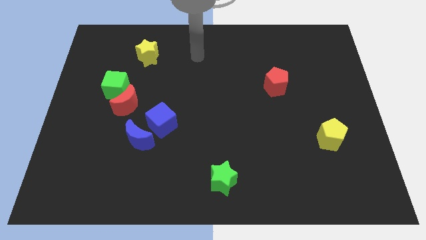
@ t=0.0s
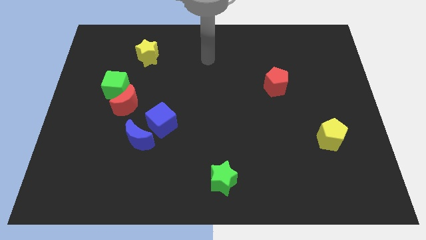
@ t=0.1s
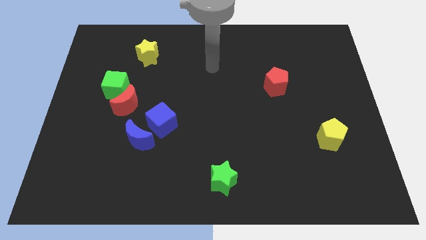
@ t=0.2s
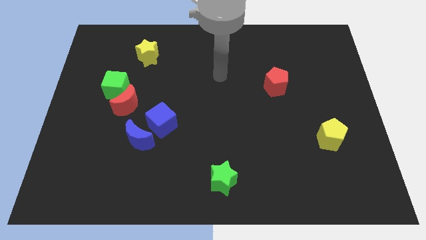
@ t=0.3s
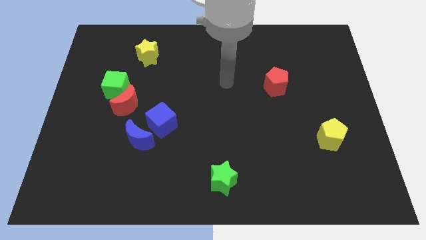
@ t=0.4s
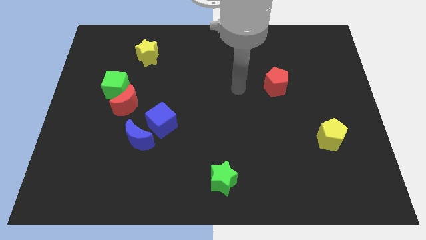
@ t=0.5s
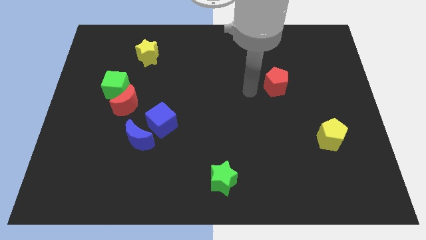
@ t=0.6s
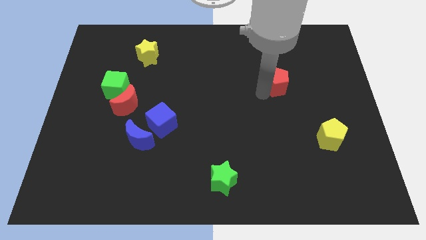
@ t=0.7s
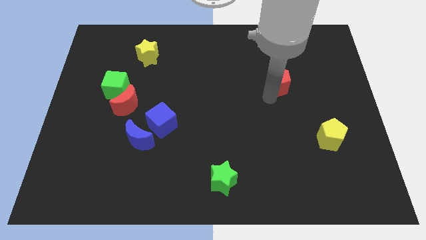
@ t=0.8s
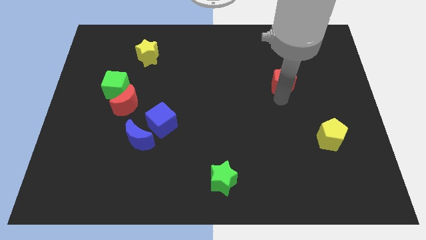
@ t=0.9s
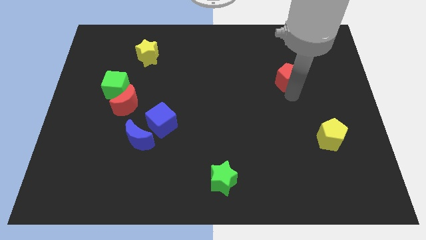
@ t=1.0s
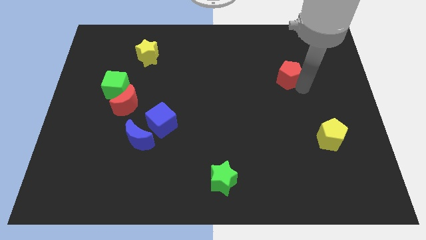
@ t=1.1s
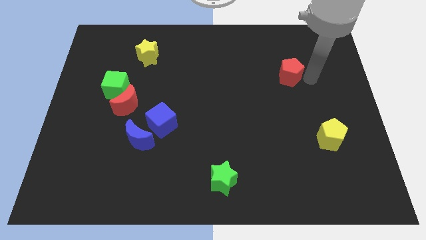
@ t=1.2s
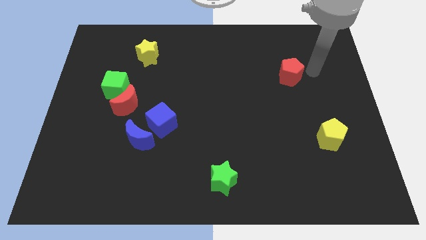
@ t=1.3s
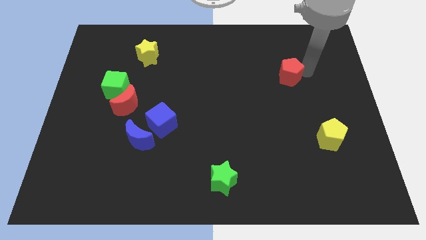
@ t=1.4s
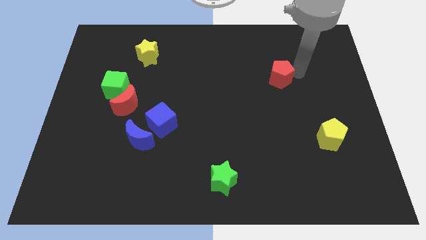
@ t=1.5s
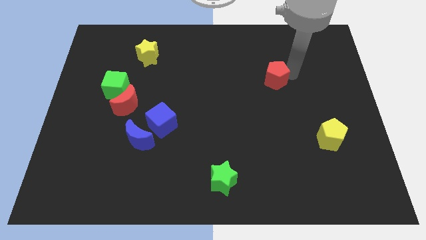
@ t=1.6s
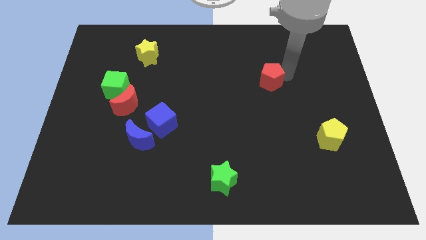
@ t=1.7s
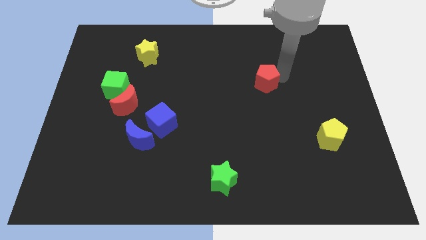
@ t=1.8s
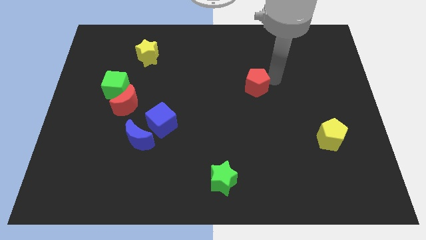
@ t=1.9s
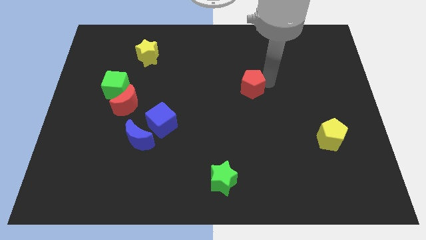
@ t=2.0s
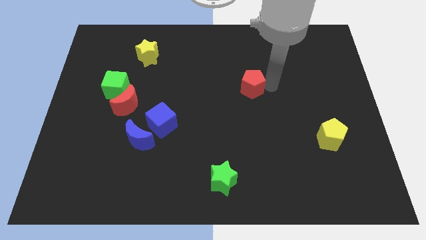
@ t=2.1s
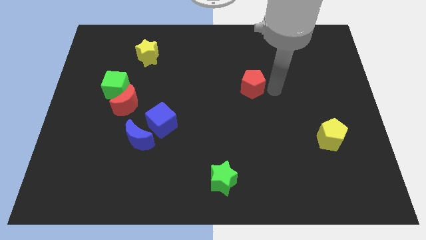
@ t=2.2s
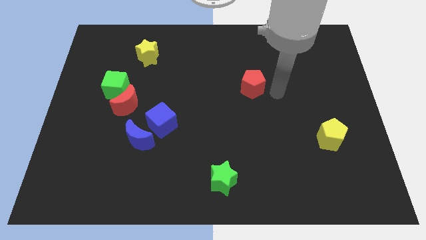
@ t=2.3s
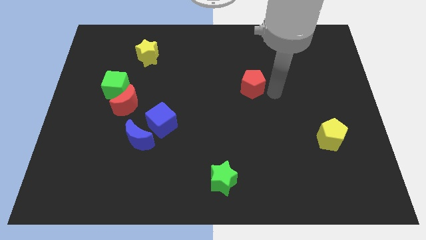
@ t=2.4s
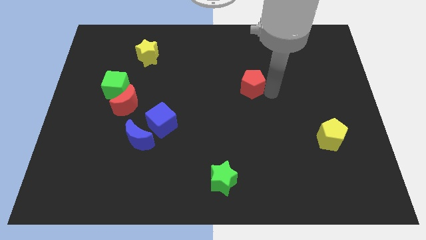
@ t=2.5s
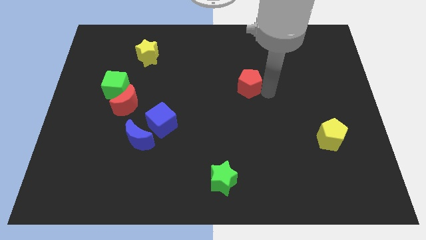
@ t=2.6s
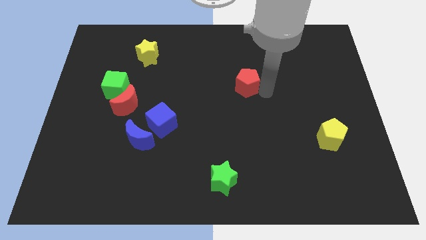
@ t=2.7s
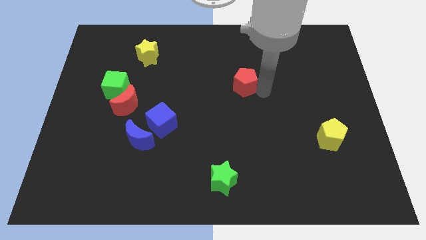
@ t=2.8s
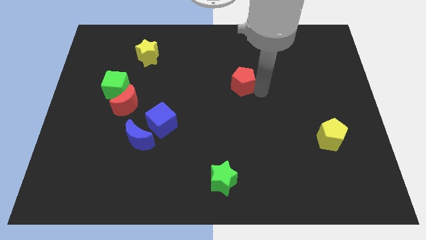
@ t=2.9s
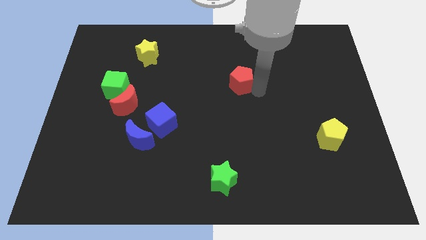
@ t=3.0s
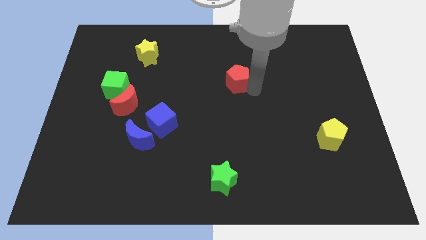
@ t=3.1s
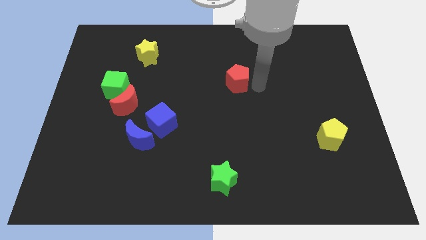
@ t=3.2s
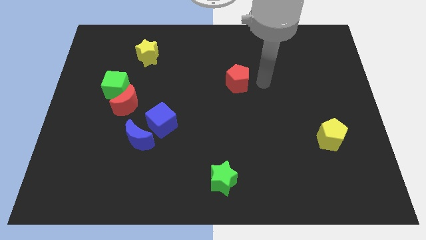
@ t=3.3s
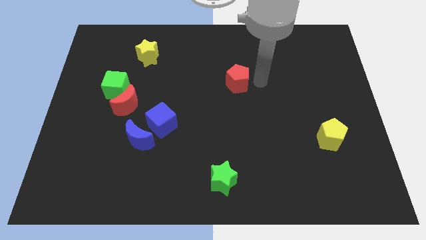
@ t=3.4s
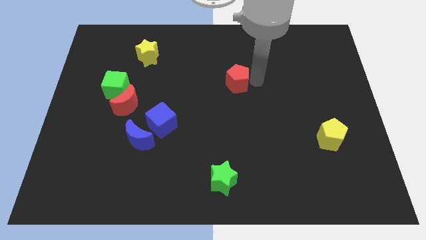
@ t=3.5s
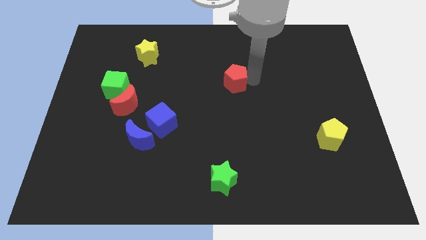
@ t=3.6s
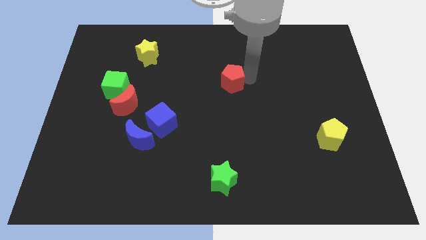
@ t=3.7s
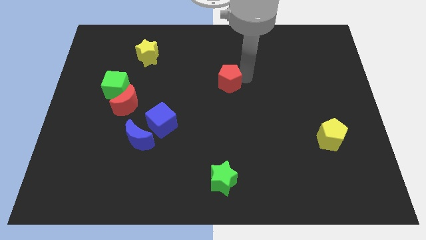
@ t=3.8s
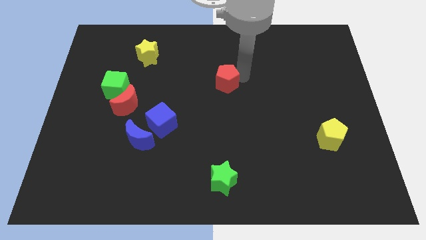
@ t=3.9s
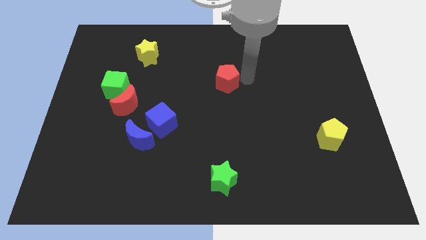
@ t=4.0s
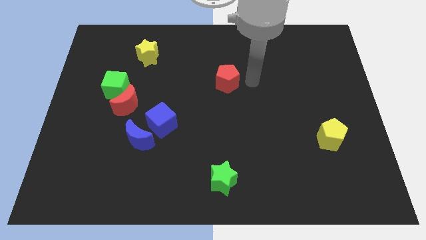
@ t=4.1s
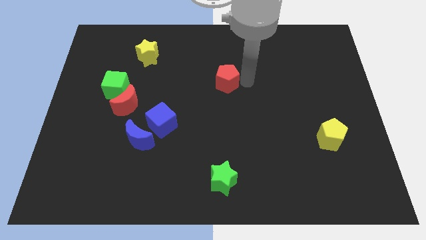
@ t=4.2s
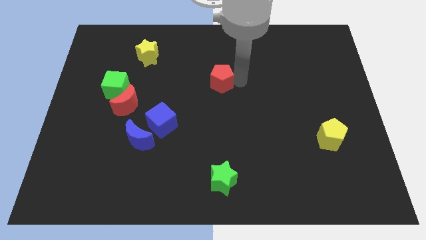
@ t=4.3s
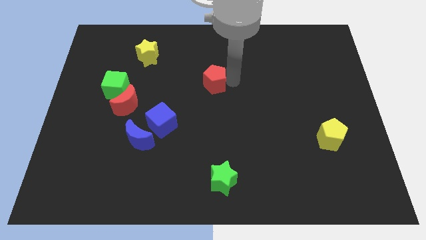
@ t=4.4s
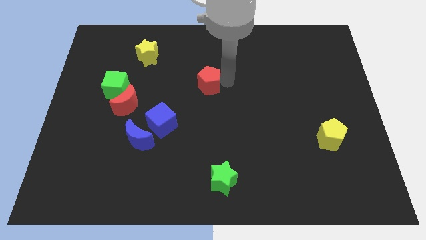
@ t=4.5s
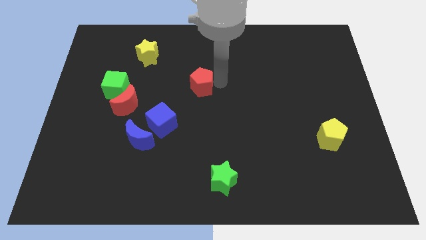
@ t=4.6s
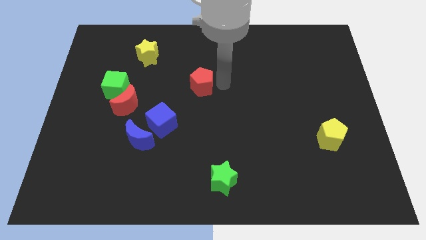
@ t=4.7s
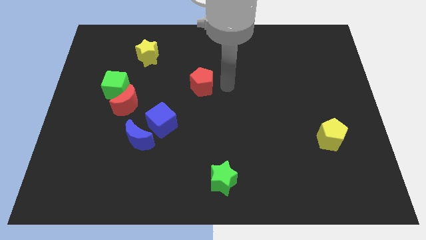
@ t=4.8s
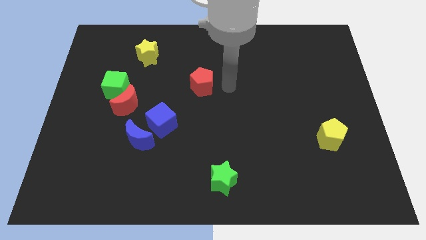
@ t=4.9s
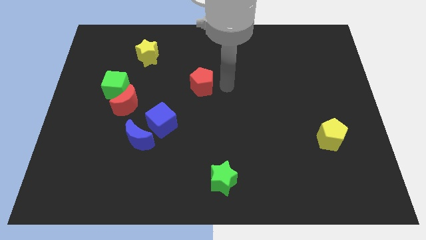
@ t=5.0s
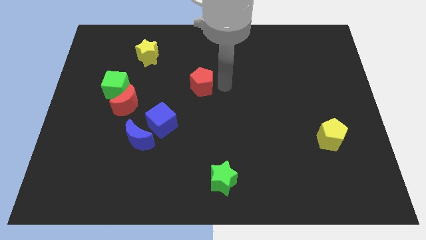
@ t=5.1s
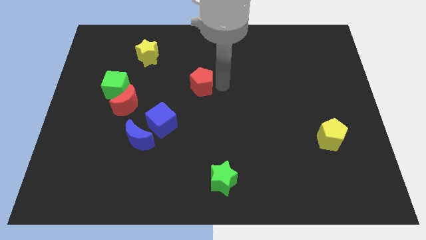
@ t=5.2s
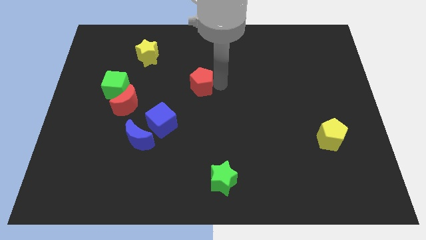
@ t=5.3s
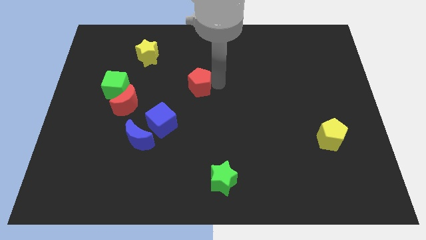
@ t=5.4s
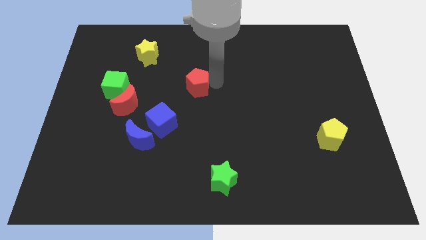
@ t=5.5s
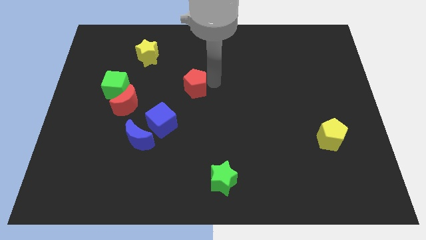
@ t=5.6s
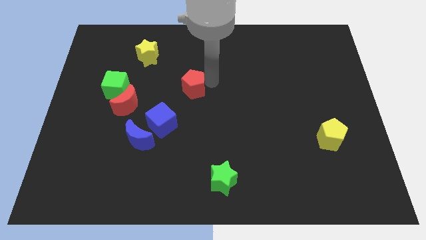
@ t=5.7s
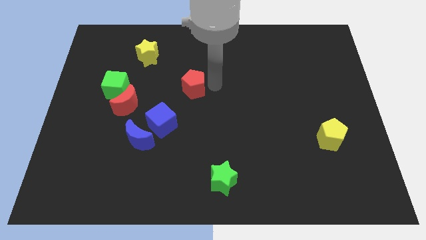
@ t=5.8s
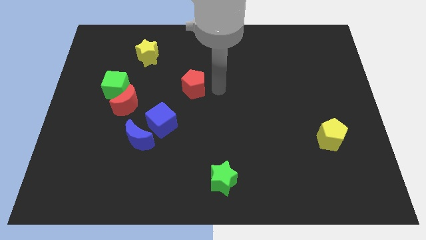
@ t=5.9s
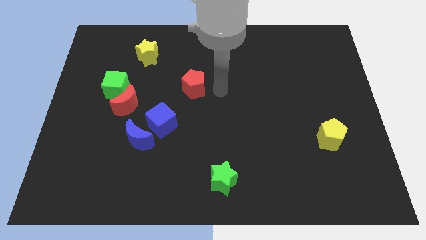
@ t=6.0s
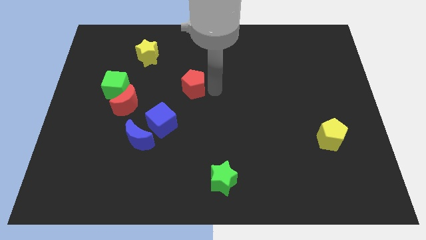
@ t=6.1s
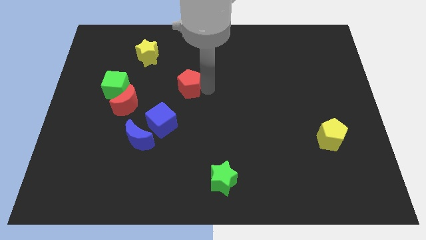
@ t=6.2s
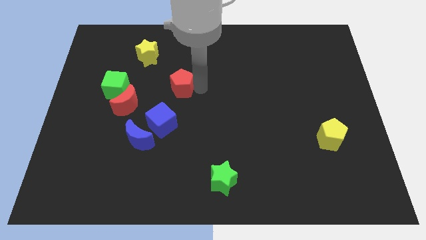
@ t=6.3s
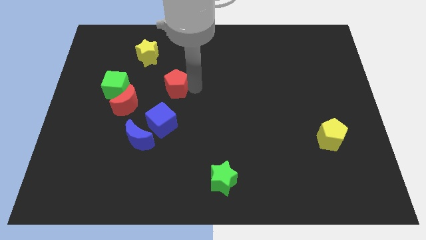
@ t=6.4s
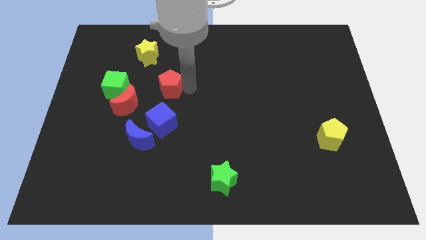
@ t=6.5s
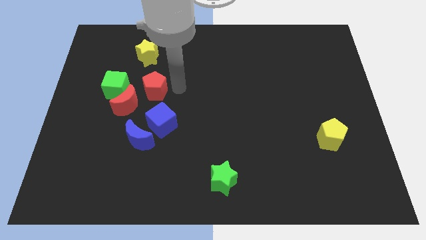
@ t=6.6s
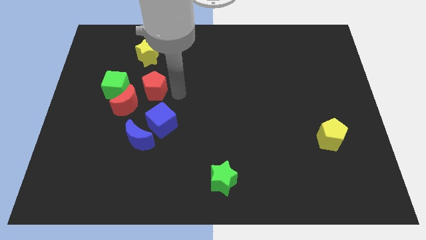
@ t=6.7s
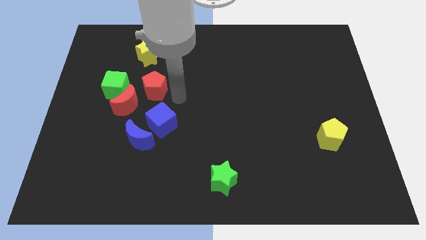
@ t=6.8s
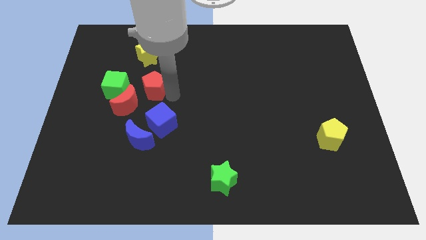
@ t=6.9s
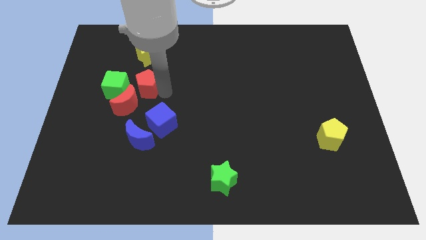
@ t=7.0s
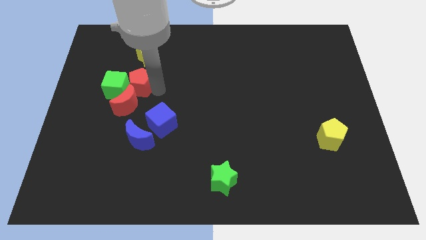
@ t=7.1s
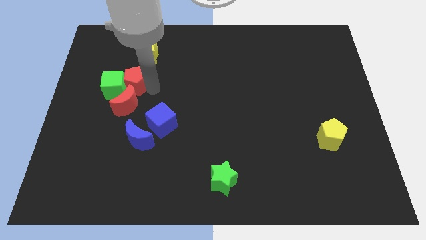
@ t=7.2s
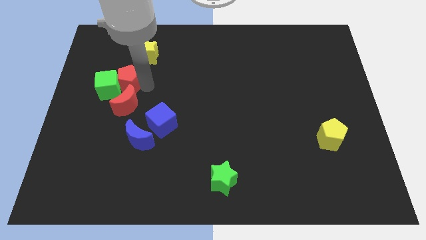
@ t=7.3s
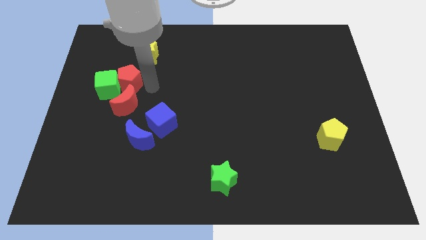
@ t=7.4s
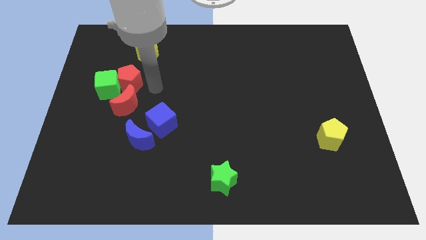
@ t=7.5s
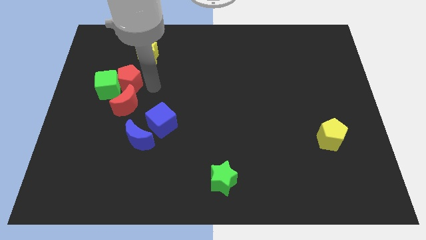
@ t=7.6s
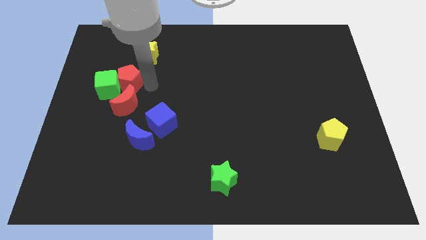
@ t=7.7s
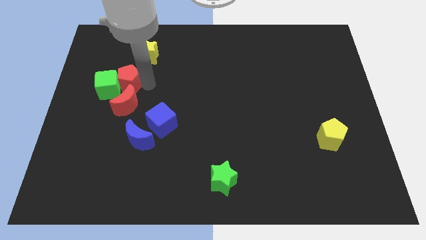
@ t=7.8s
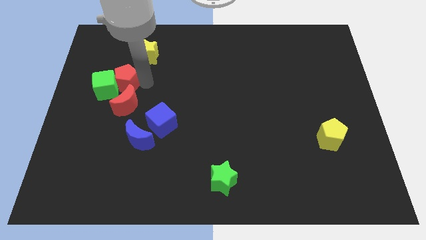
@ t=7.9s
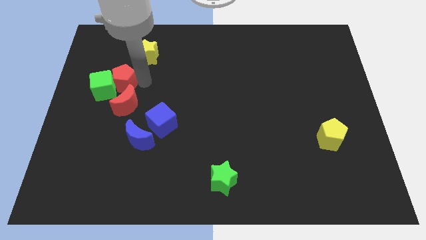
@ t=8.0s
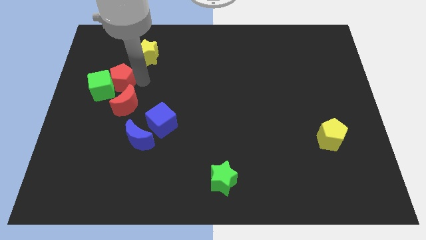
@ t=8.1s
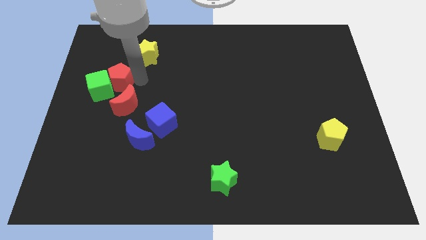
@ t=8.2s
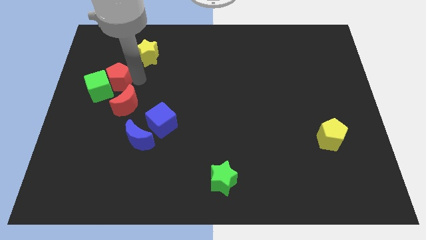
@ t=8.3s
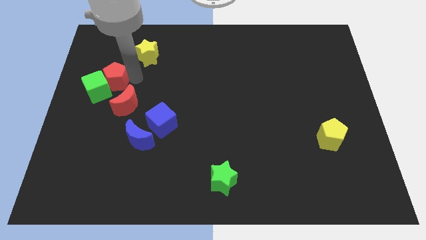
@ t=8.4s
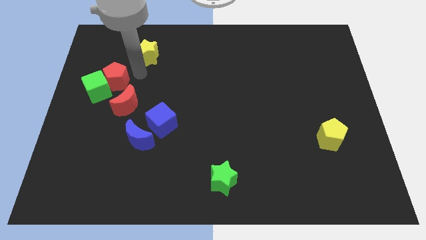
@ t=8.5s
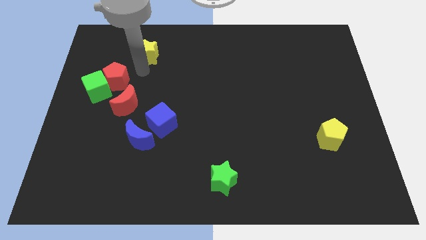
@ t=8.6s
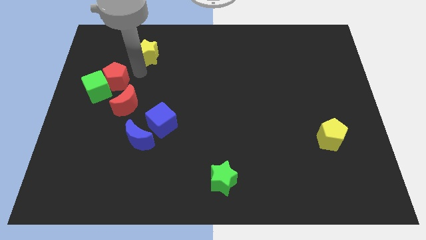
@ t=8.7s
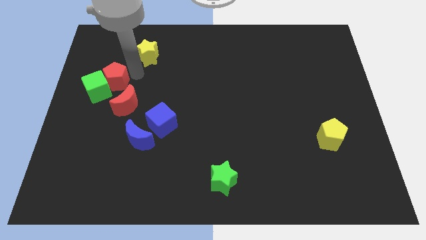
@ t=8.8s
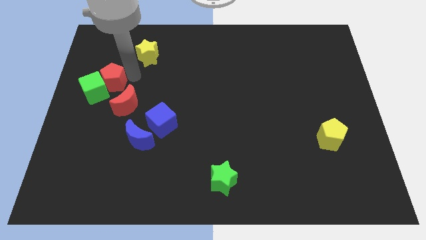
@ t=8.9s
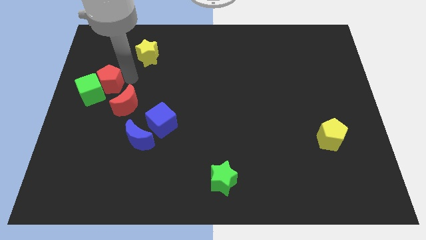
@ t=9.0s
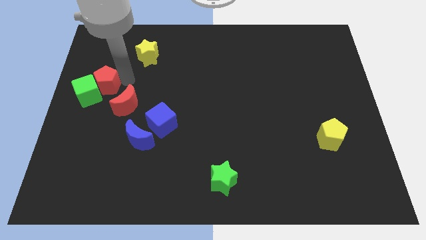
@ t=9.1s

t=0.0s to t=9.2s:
put the red pentagon to the left side
